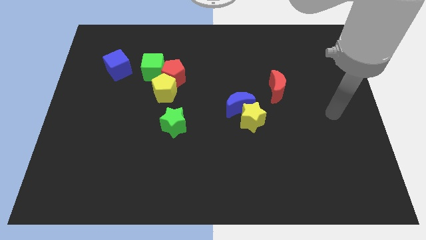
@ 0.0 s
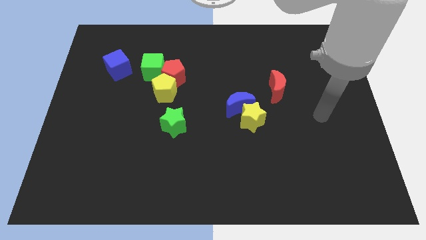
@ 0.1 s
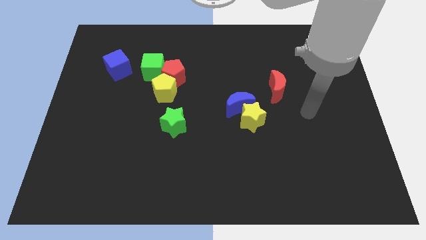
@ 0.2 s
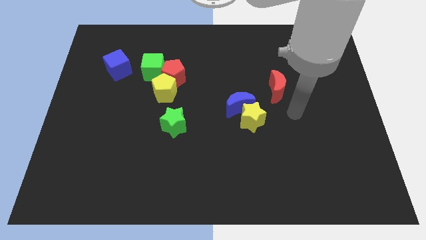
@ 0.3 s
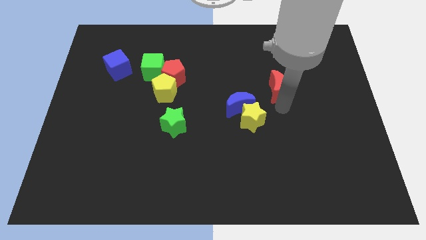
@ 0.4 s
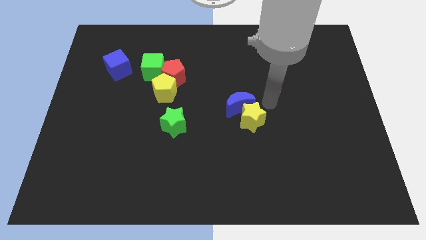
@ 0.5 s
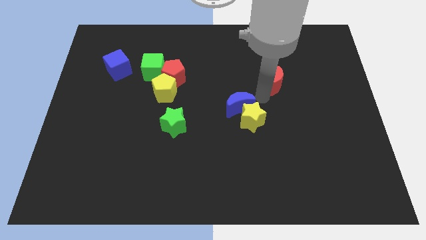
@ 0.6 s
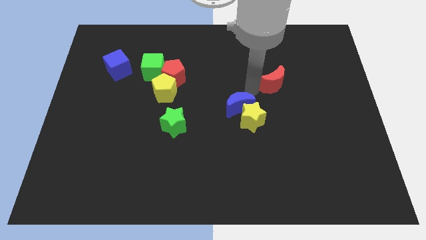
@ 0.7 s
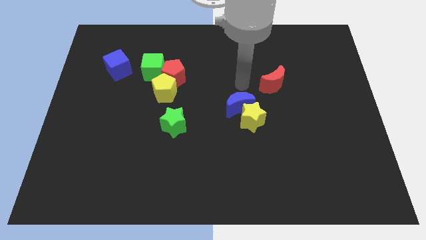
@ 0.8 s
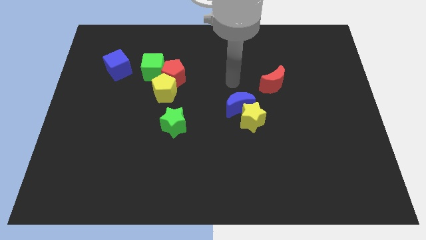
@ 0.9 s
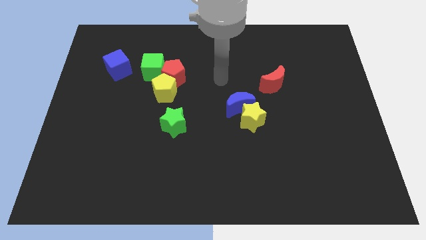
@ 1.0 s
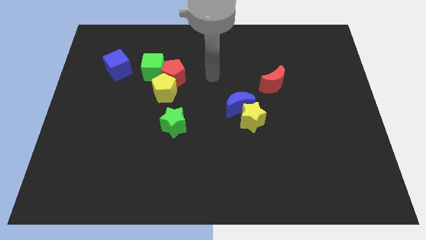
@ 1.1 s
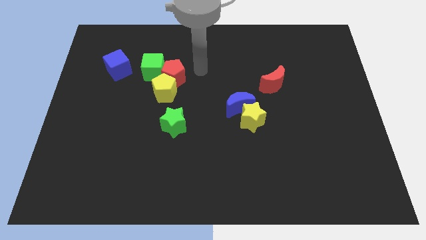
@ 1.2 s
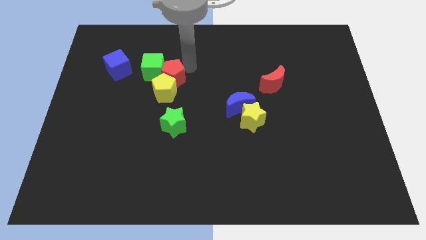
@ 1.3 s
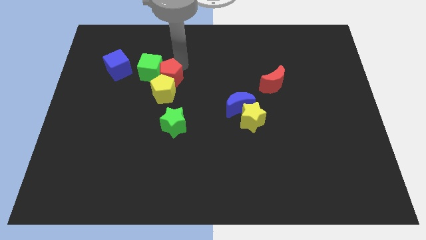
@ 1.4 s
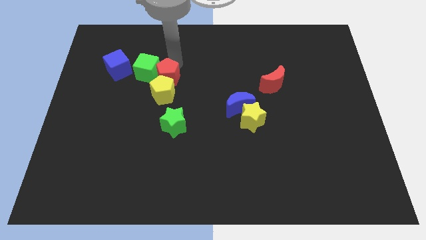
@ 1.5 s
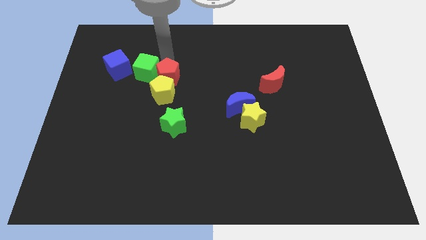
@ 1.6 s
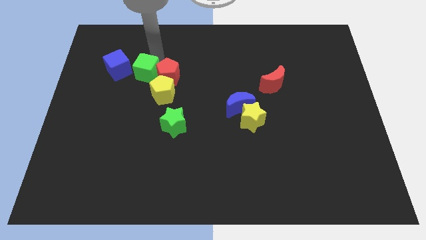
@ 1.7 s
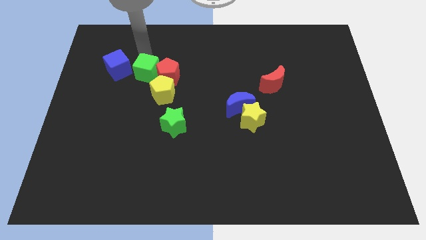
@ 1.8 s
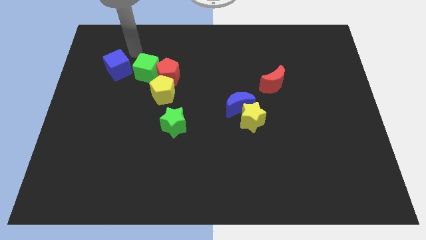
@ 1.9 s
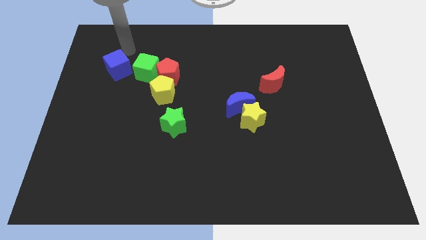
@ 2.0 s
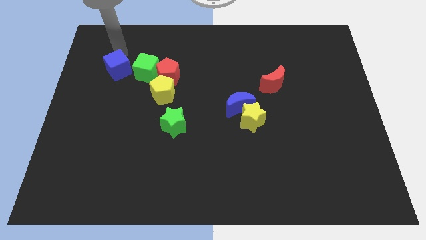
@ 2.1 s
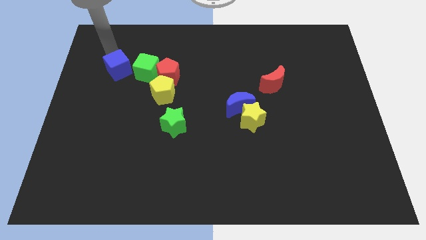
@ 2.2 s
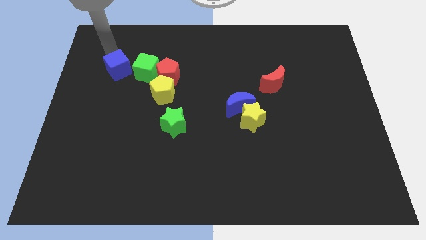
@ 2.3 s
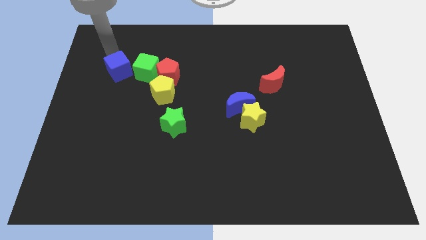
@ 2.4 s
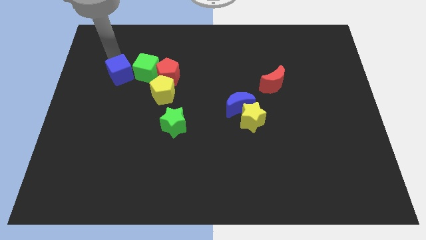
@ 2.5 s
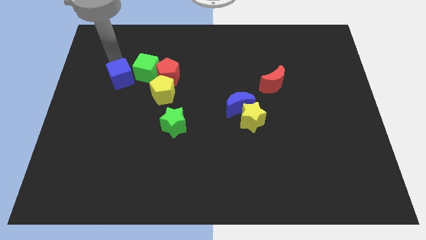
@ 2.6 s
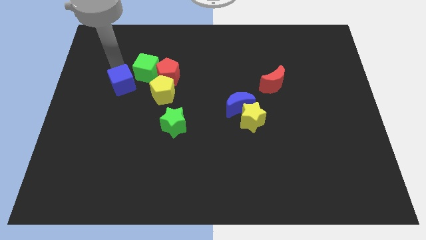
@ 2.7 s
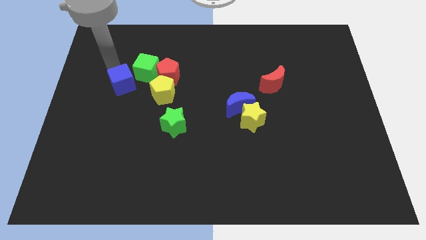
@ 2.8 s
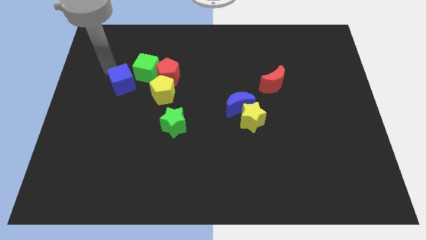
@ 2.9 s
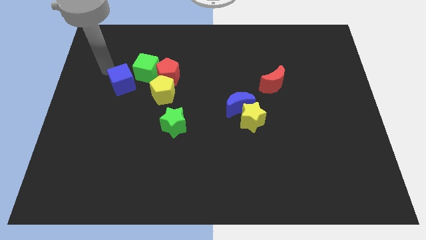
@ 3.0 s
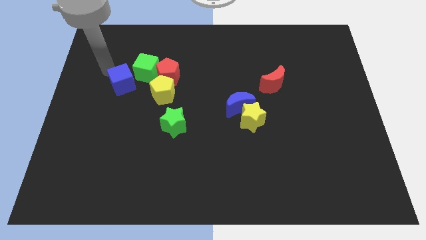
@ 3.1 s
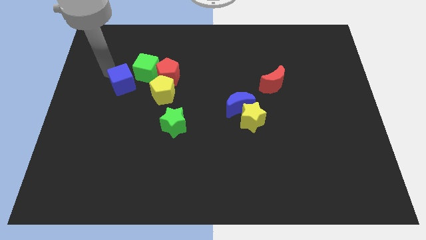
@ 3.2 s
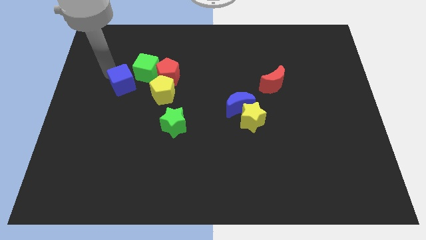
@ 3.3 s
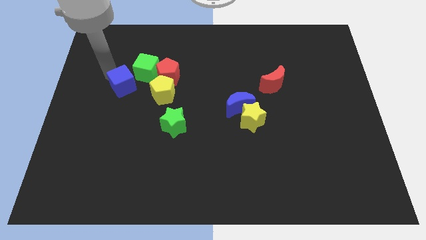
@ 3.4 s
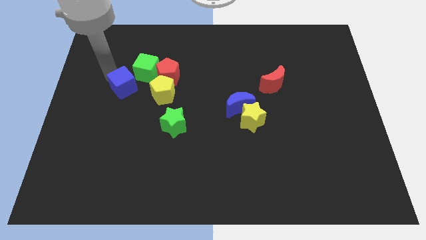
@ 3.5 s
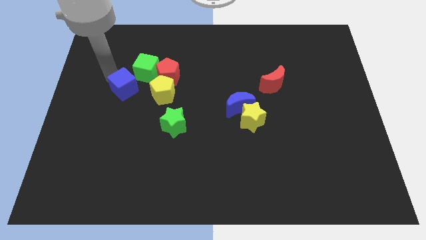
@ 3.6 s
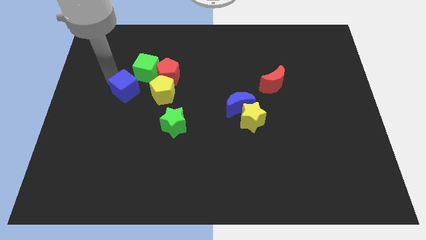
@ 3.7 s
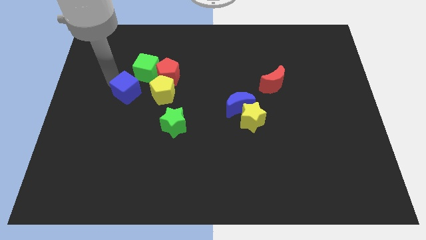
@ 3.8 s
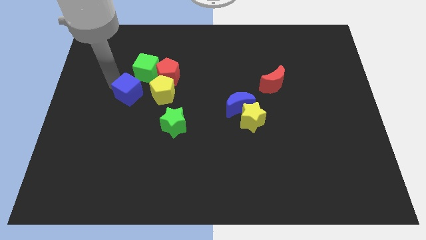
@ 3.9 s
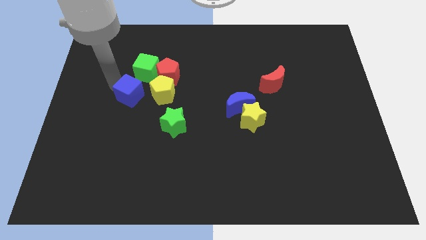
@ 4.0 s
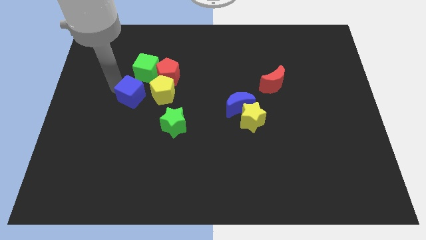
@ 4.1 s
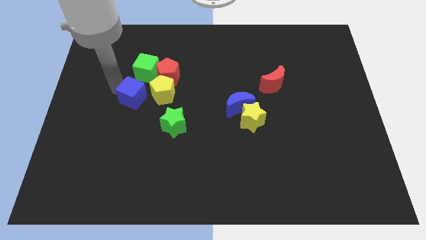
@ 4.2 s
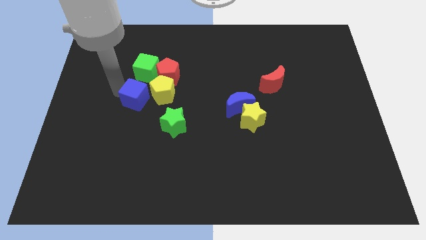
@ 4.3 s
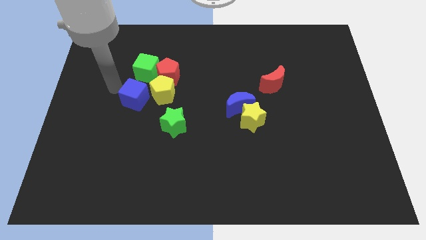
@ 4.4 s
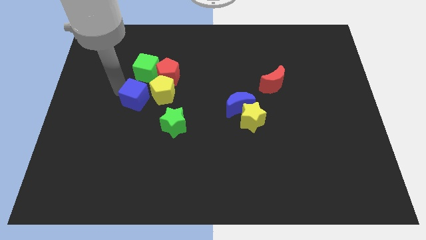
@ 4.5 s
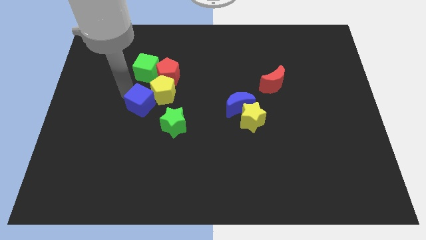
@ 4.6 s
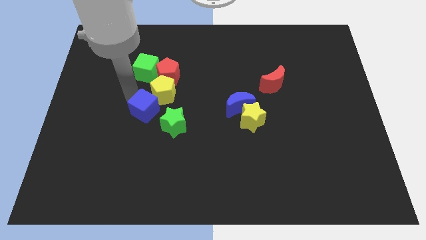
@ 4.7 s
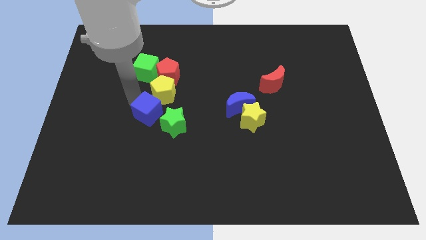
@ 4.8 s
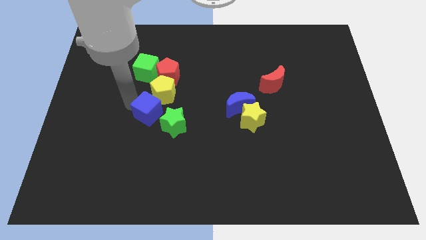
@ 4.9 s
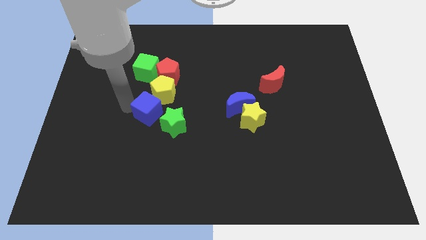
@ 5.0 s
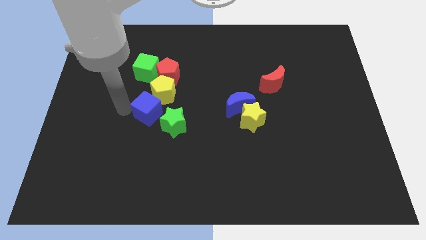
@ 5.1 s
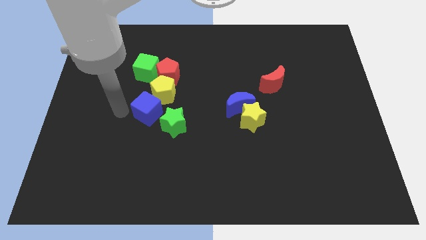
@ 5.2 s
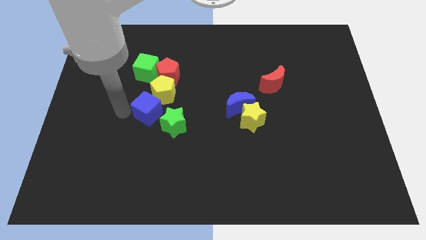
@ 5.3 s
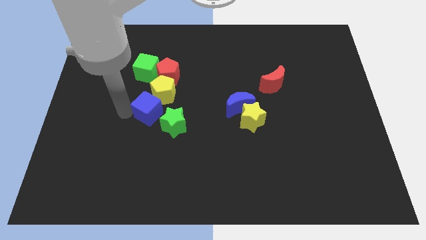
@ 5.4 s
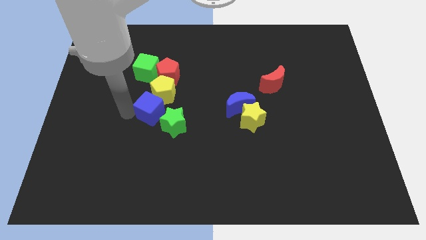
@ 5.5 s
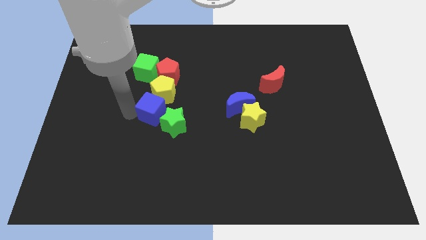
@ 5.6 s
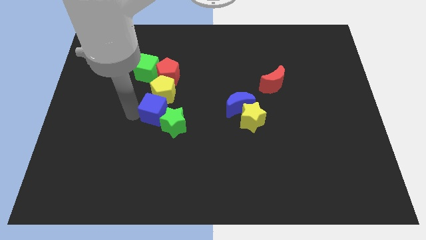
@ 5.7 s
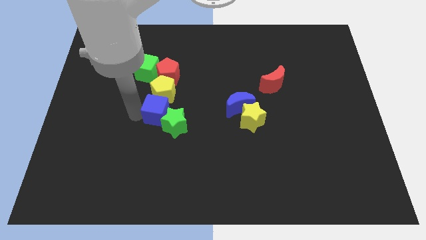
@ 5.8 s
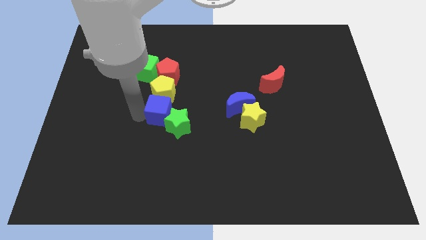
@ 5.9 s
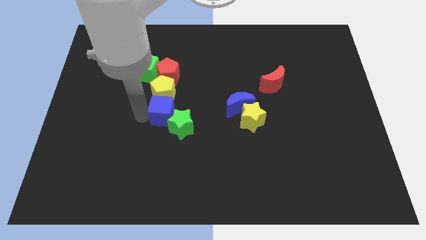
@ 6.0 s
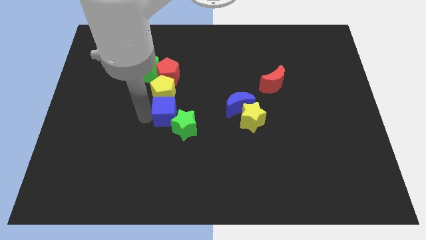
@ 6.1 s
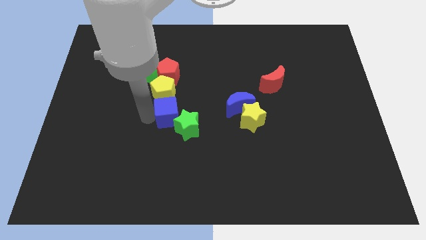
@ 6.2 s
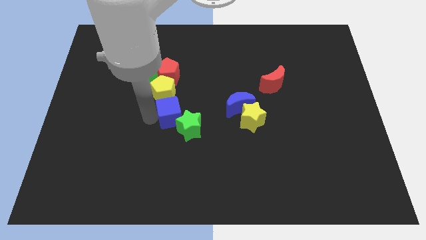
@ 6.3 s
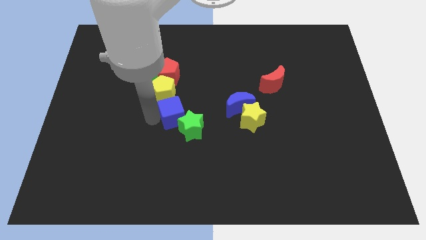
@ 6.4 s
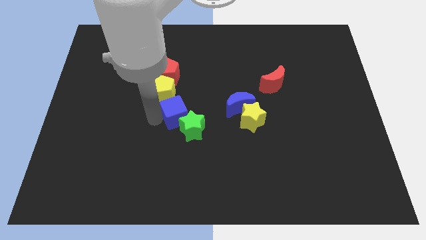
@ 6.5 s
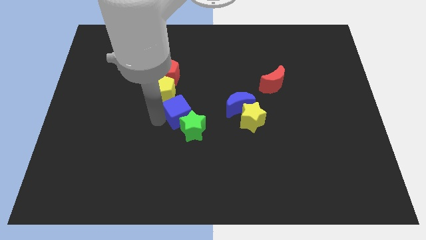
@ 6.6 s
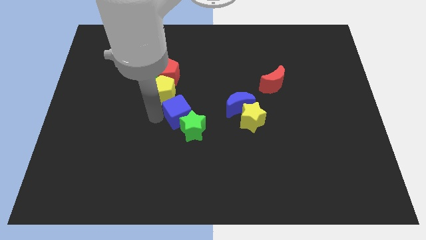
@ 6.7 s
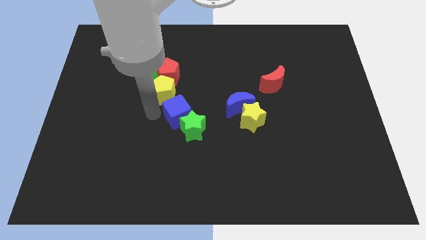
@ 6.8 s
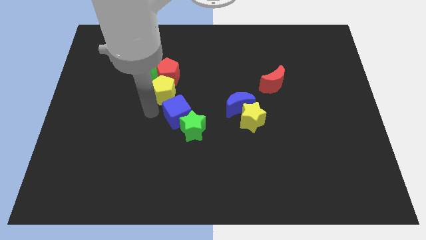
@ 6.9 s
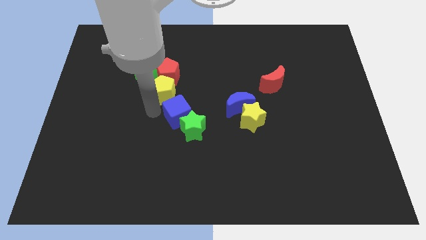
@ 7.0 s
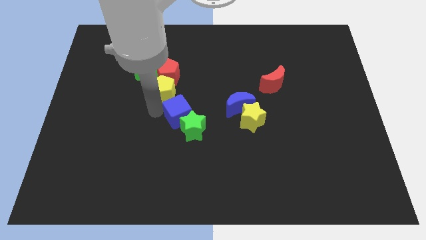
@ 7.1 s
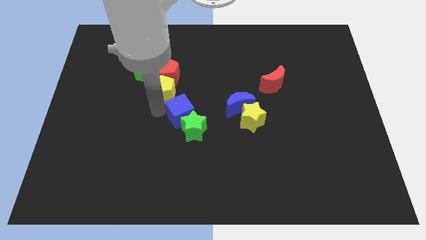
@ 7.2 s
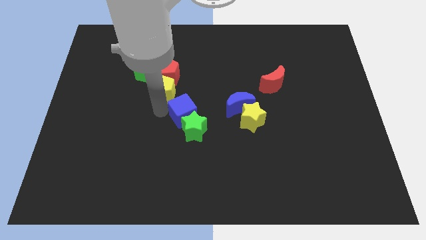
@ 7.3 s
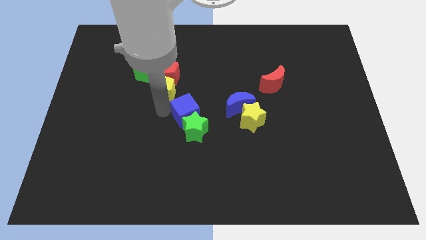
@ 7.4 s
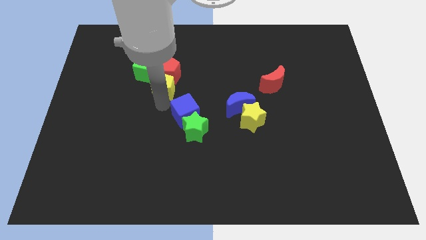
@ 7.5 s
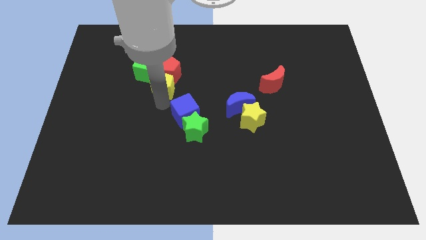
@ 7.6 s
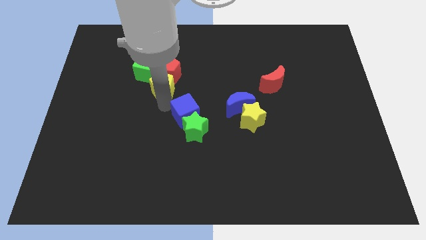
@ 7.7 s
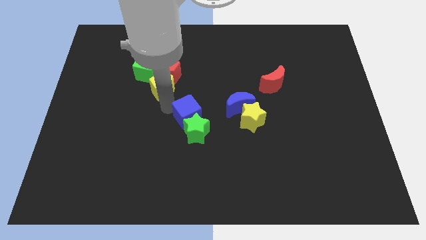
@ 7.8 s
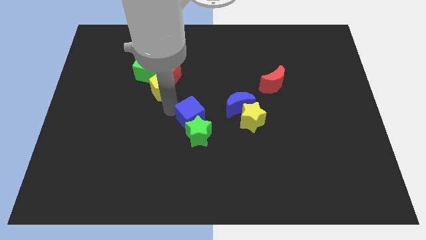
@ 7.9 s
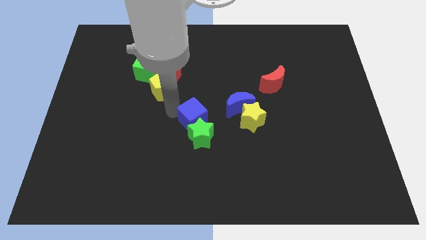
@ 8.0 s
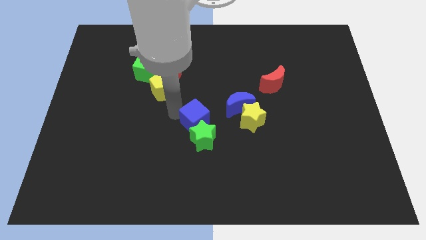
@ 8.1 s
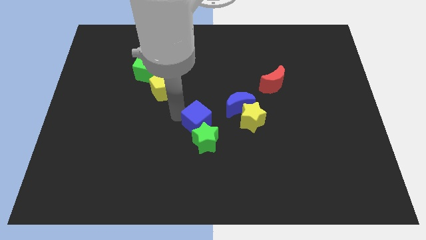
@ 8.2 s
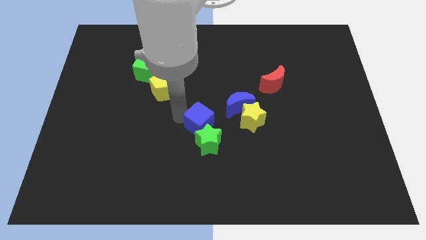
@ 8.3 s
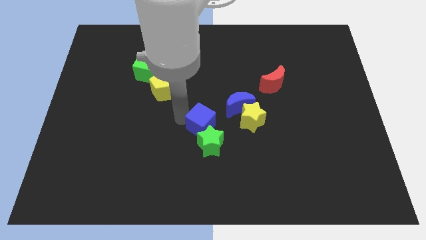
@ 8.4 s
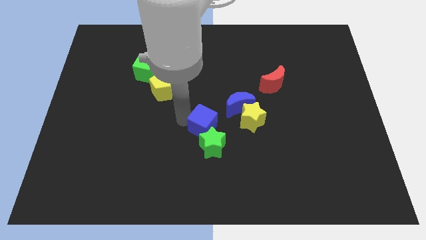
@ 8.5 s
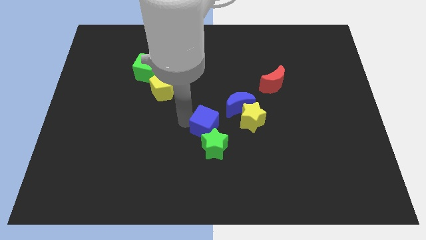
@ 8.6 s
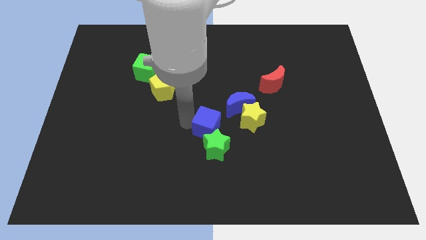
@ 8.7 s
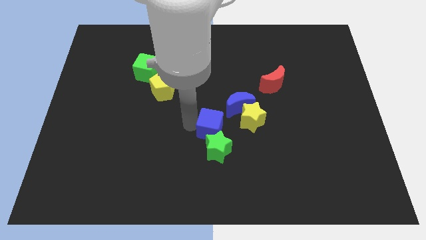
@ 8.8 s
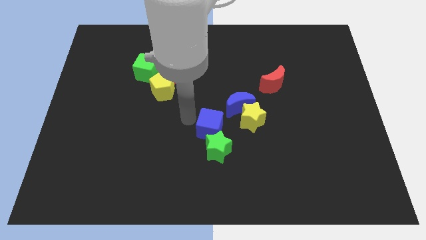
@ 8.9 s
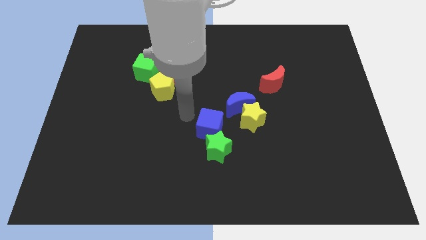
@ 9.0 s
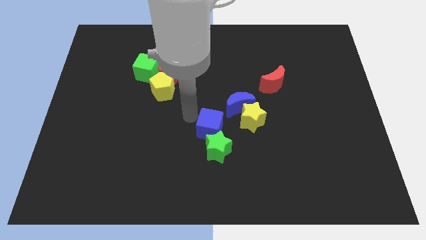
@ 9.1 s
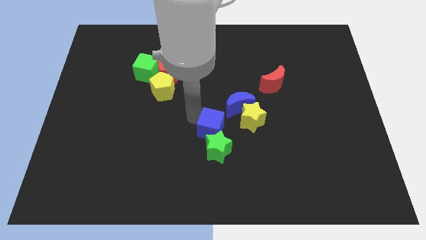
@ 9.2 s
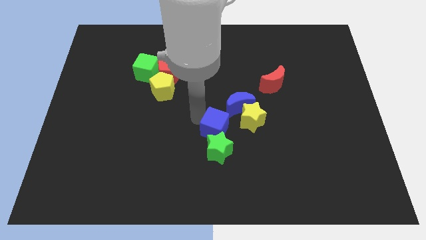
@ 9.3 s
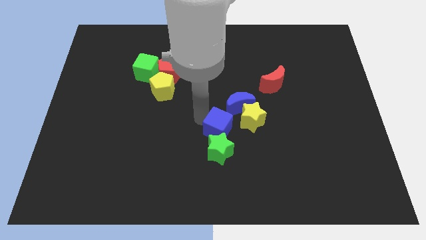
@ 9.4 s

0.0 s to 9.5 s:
push the blue cube below the blue moon
